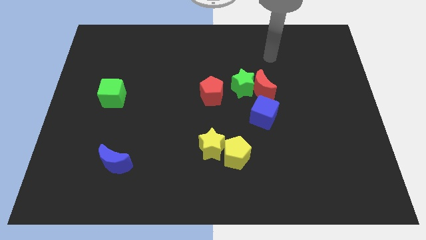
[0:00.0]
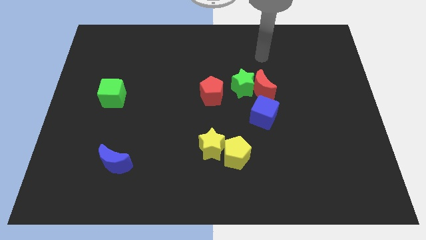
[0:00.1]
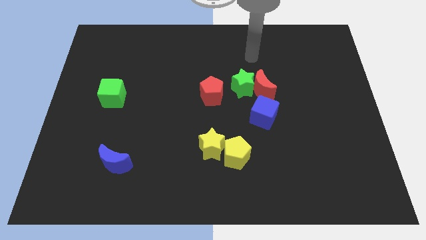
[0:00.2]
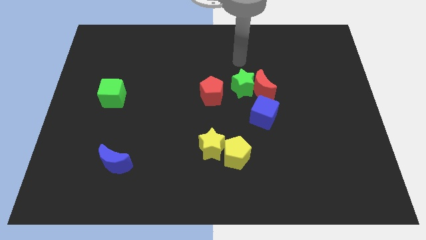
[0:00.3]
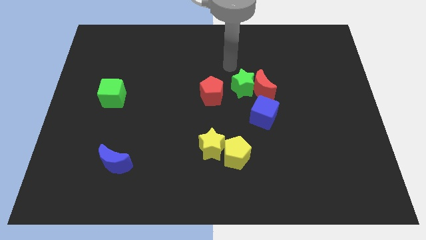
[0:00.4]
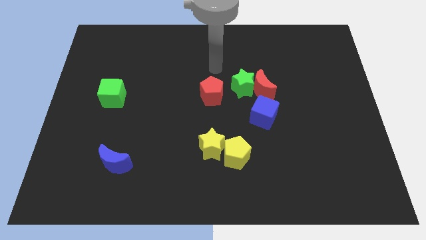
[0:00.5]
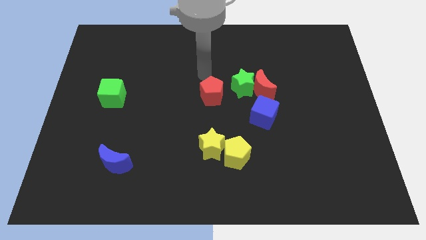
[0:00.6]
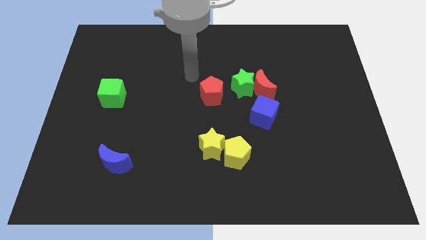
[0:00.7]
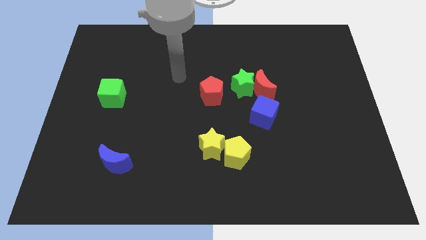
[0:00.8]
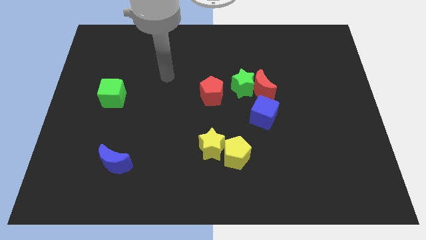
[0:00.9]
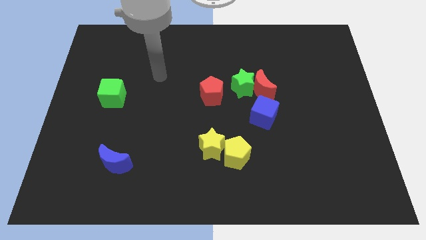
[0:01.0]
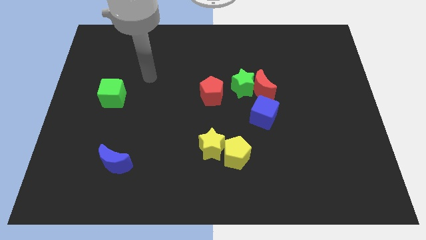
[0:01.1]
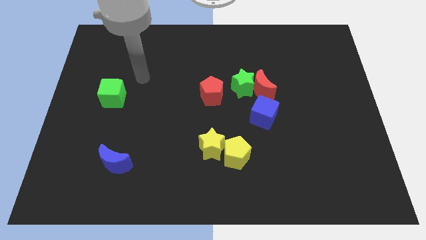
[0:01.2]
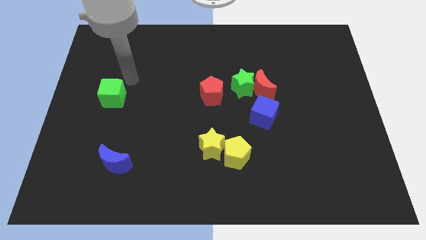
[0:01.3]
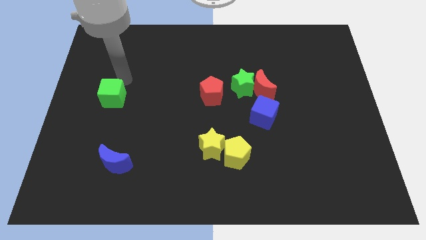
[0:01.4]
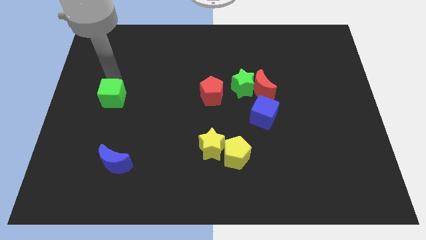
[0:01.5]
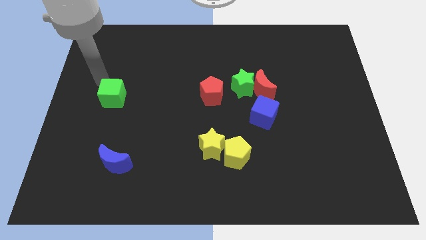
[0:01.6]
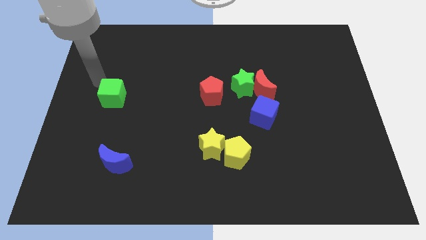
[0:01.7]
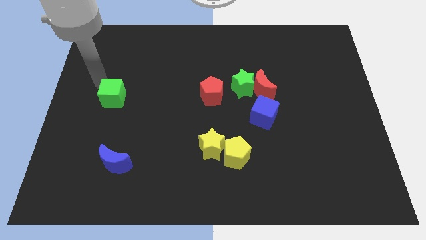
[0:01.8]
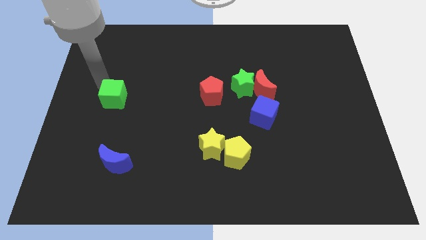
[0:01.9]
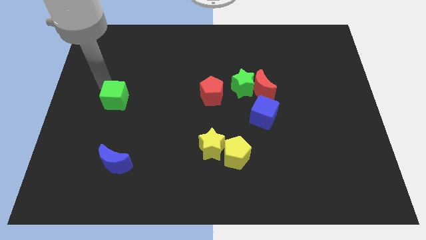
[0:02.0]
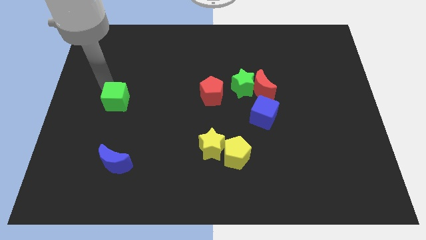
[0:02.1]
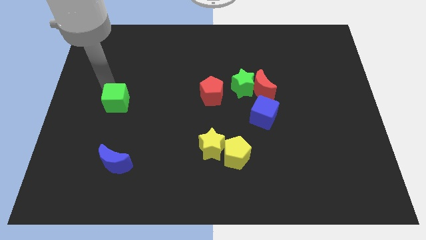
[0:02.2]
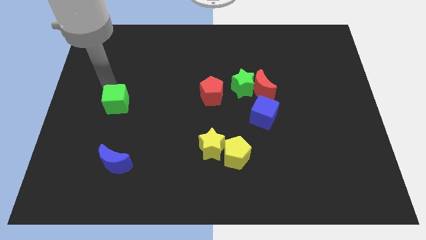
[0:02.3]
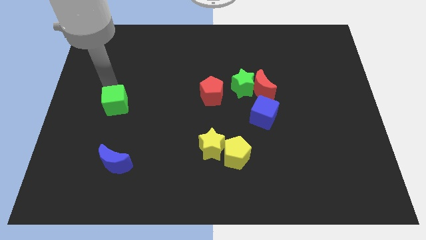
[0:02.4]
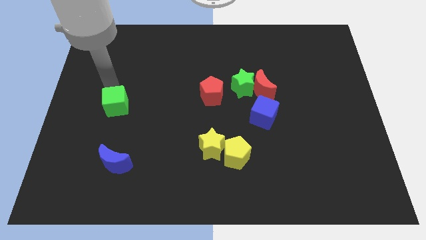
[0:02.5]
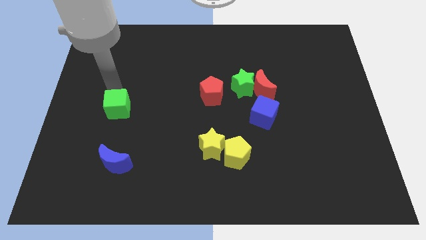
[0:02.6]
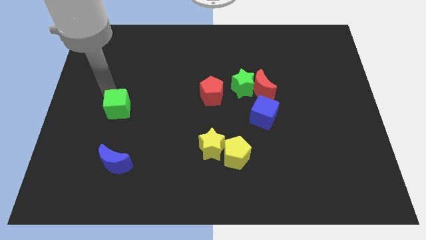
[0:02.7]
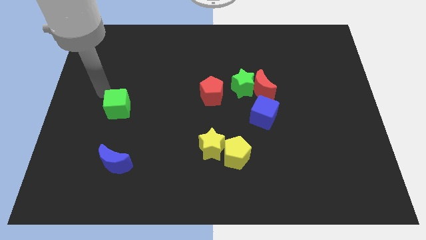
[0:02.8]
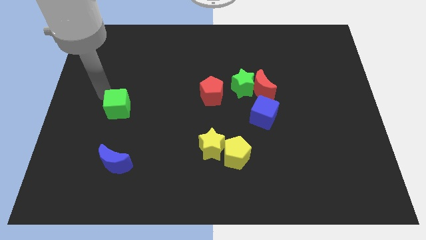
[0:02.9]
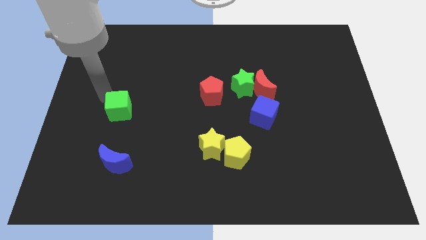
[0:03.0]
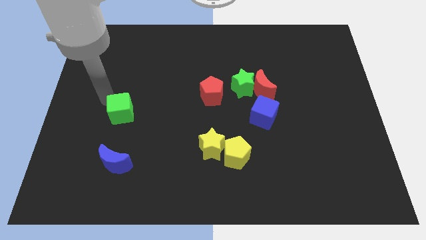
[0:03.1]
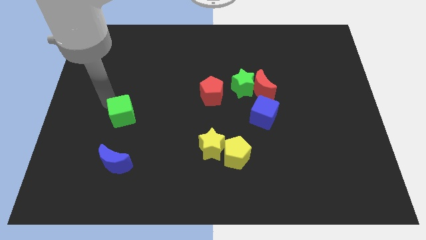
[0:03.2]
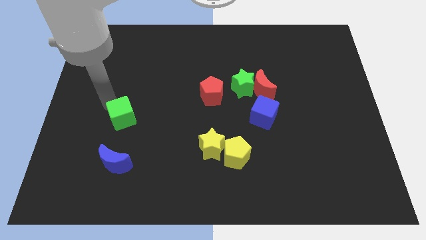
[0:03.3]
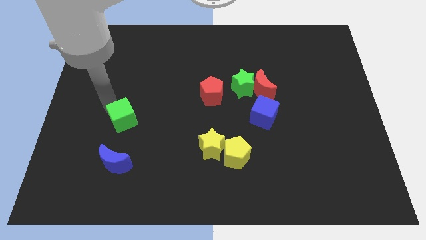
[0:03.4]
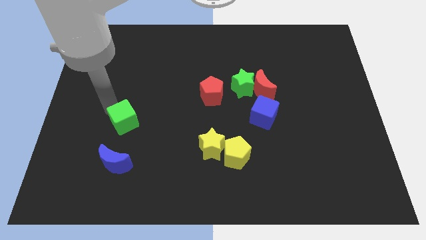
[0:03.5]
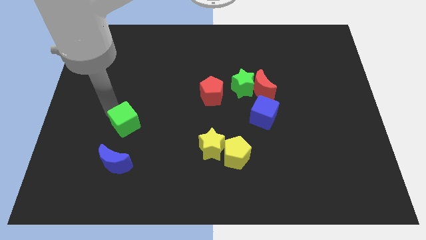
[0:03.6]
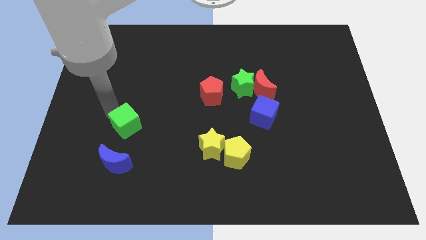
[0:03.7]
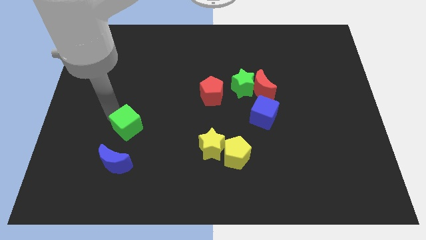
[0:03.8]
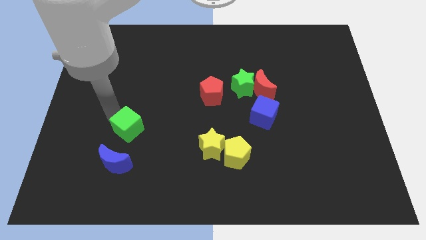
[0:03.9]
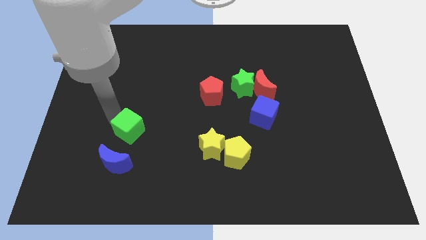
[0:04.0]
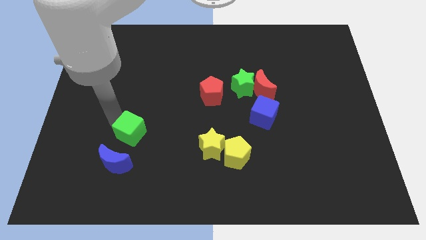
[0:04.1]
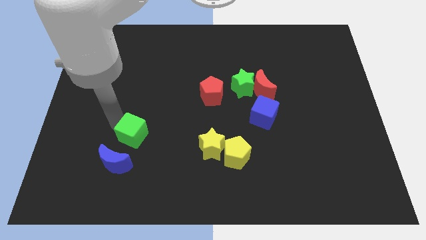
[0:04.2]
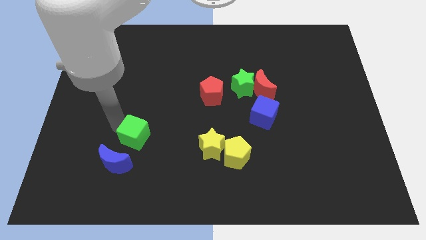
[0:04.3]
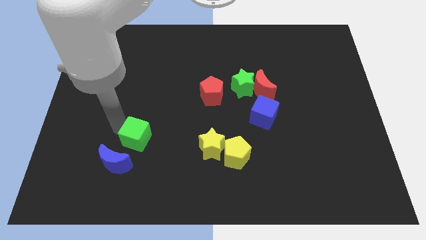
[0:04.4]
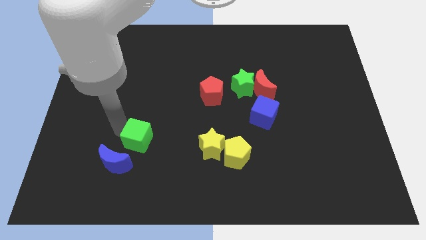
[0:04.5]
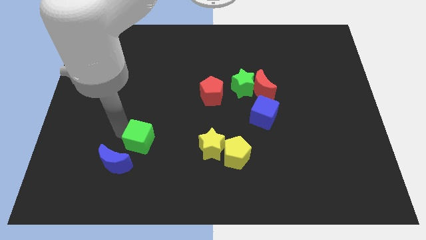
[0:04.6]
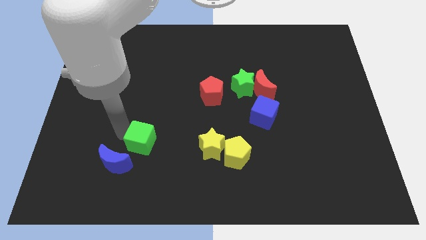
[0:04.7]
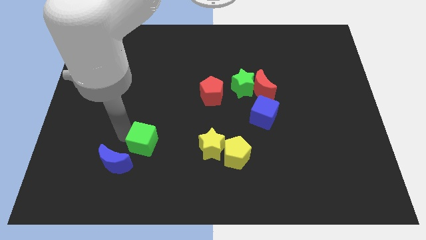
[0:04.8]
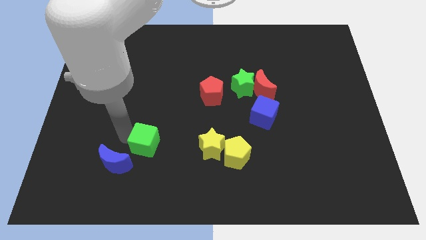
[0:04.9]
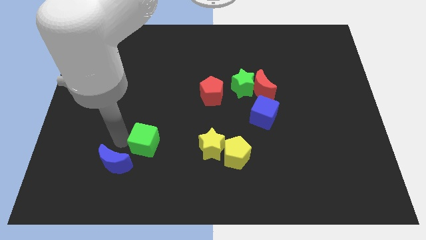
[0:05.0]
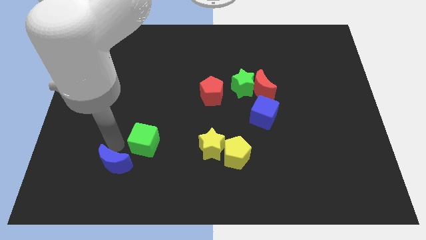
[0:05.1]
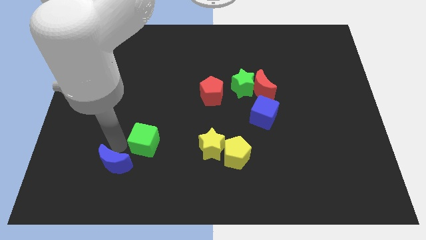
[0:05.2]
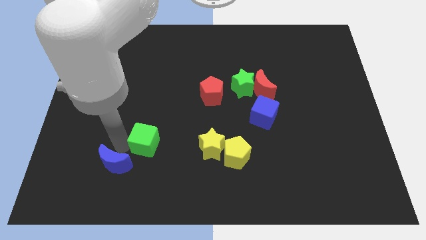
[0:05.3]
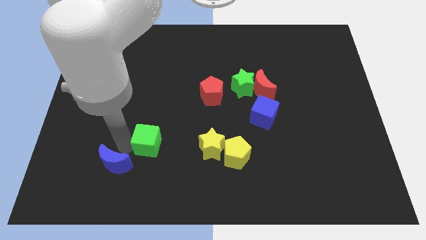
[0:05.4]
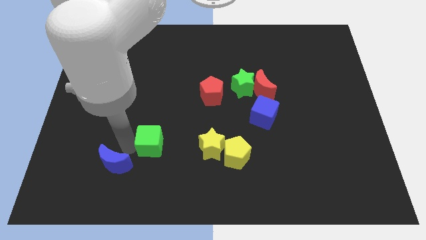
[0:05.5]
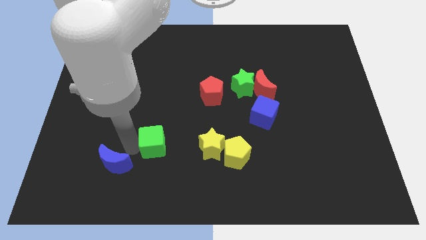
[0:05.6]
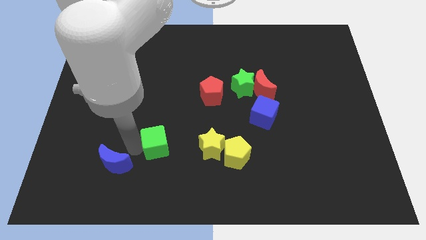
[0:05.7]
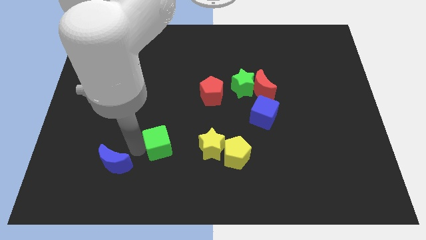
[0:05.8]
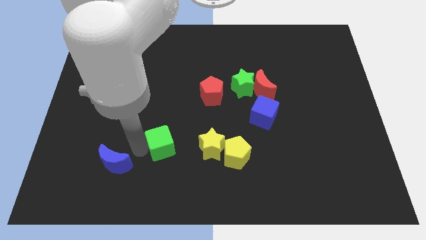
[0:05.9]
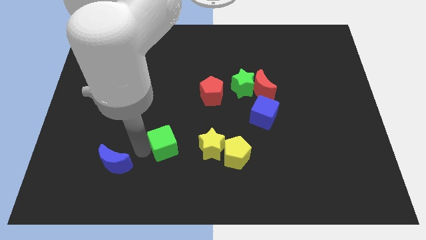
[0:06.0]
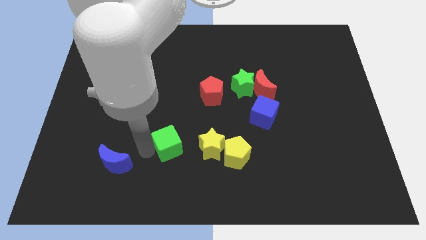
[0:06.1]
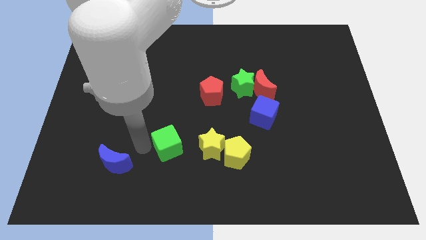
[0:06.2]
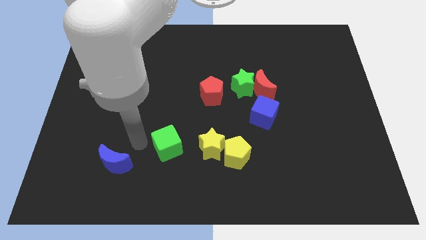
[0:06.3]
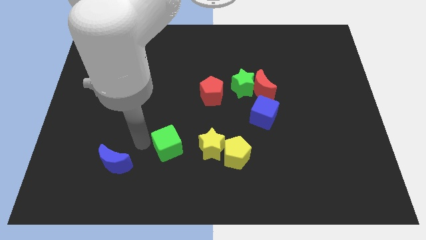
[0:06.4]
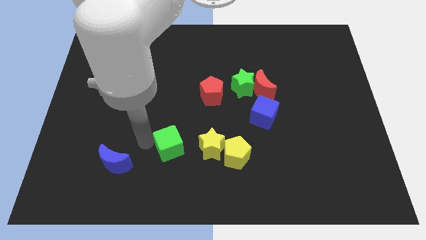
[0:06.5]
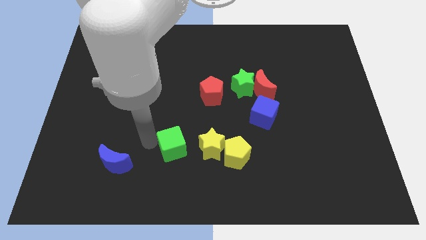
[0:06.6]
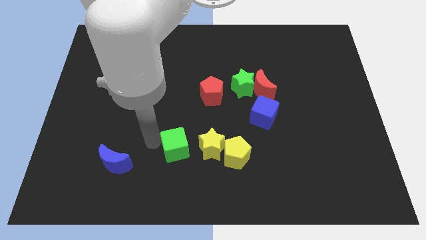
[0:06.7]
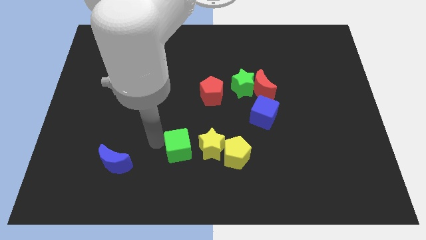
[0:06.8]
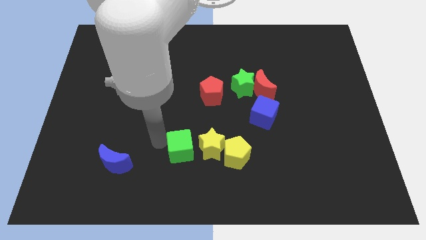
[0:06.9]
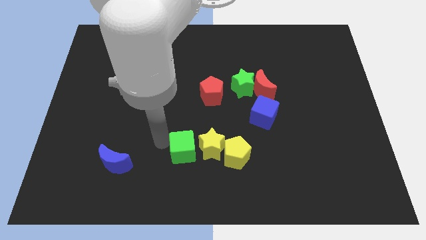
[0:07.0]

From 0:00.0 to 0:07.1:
slide the green cube to the yellow star
